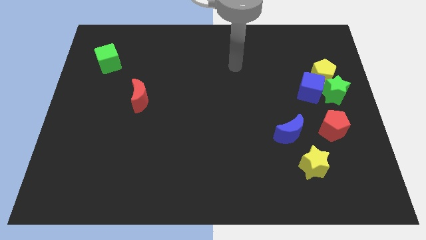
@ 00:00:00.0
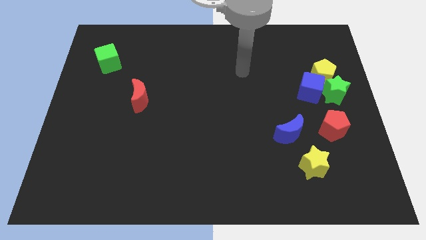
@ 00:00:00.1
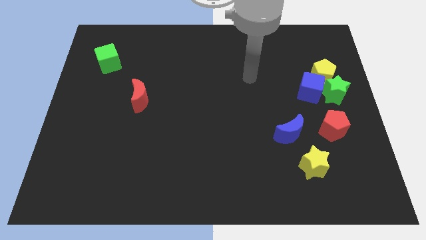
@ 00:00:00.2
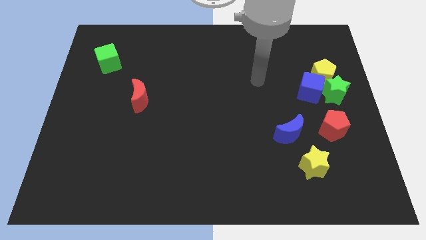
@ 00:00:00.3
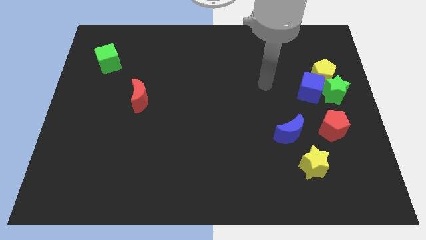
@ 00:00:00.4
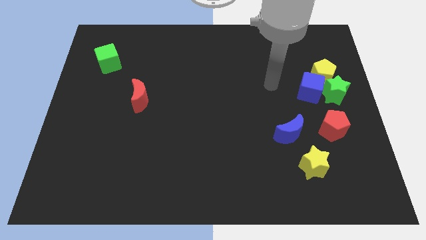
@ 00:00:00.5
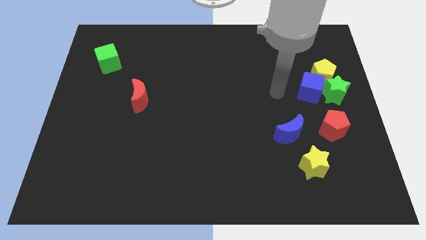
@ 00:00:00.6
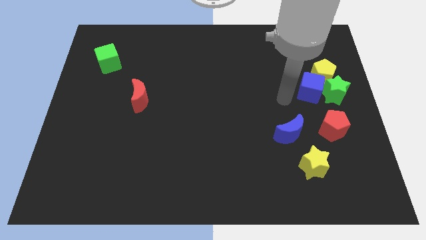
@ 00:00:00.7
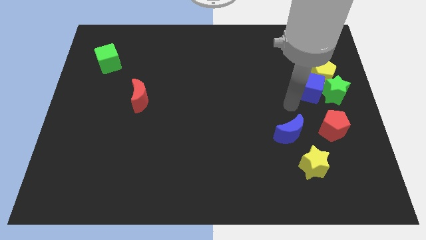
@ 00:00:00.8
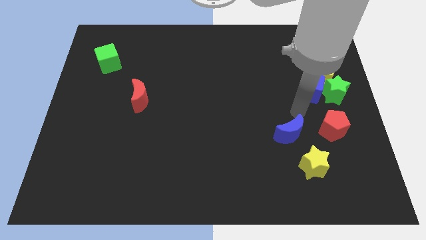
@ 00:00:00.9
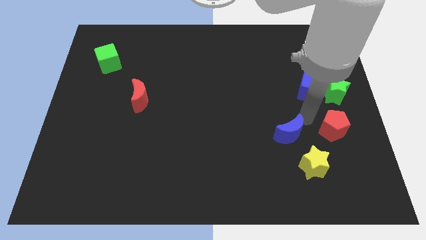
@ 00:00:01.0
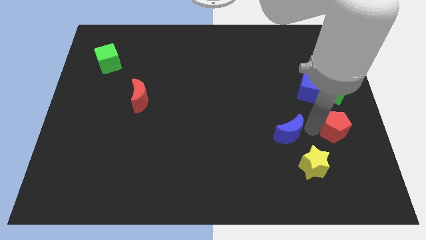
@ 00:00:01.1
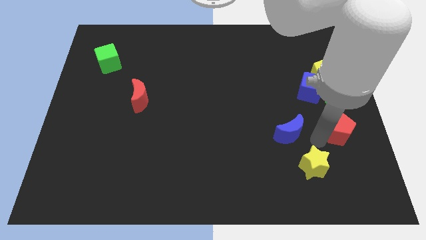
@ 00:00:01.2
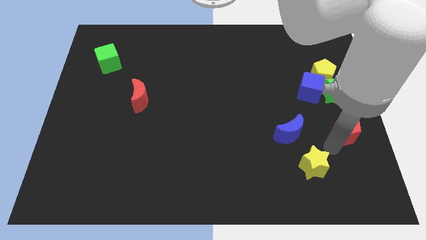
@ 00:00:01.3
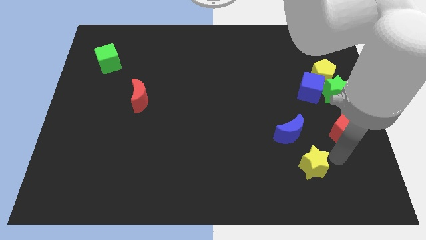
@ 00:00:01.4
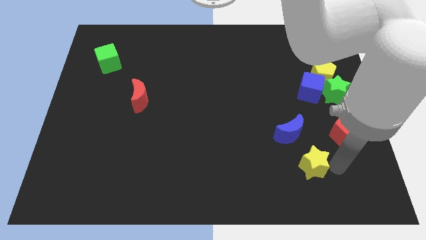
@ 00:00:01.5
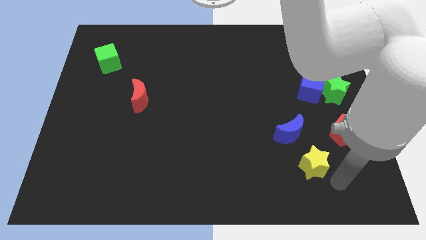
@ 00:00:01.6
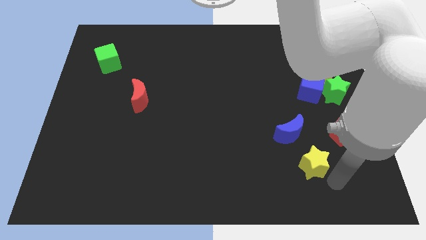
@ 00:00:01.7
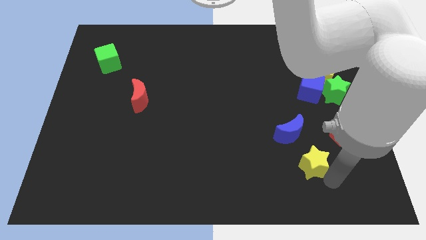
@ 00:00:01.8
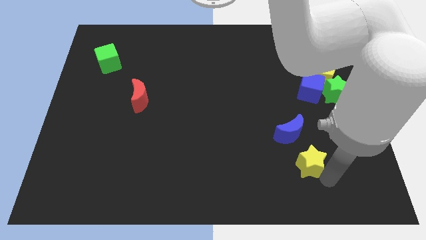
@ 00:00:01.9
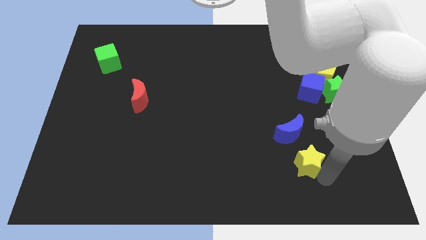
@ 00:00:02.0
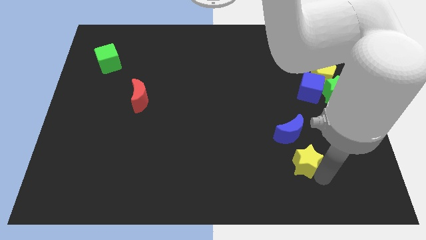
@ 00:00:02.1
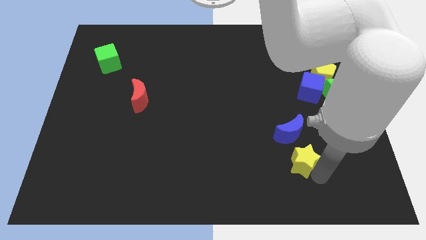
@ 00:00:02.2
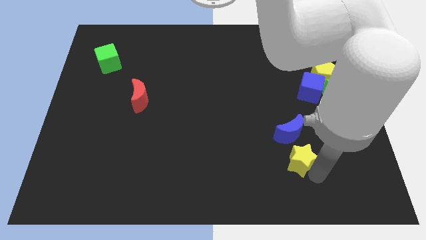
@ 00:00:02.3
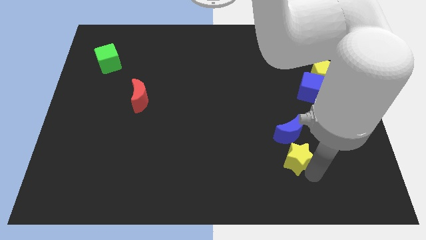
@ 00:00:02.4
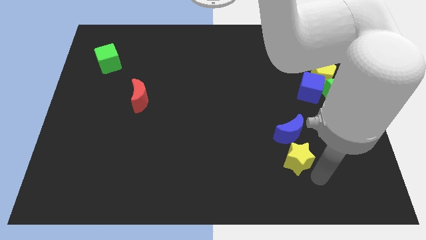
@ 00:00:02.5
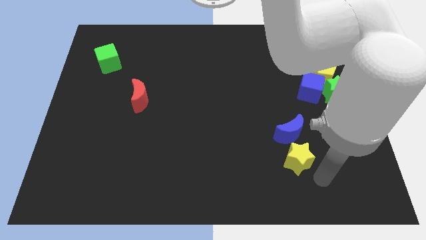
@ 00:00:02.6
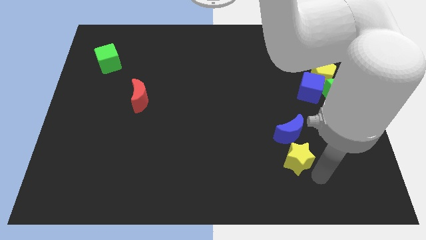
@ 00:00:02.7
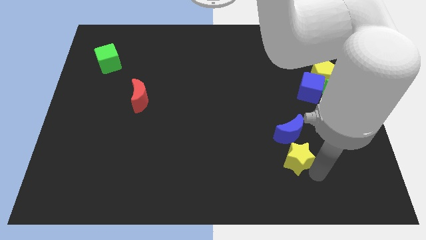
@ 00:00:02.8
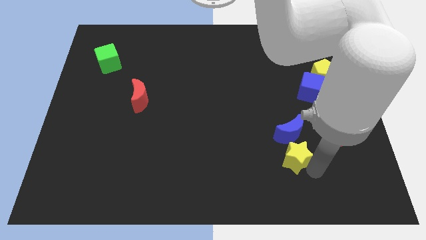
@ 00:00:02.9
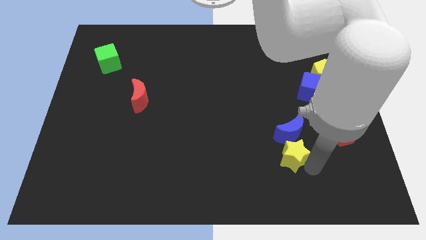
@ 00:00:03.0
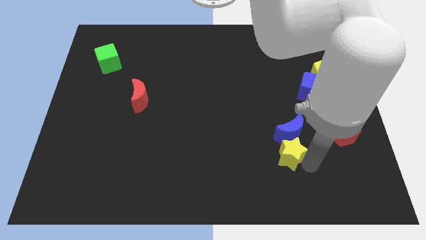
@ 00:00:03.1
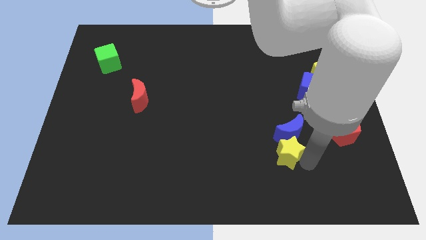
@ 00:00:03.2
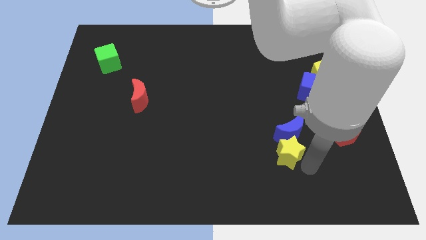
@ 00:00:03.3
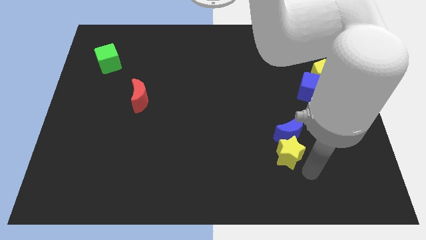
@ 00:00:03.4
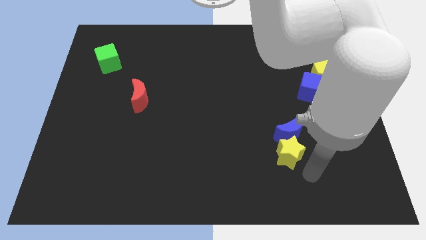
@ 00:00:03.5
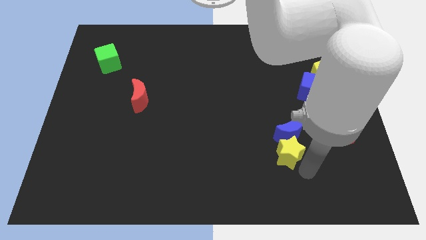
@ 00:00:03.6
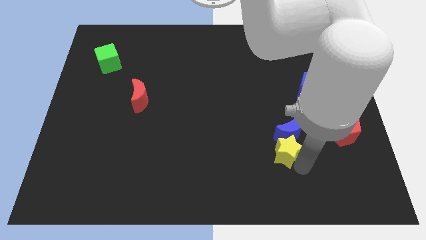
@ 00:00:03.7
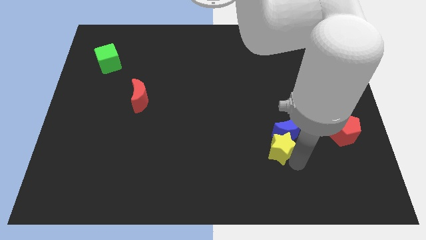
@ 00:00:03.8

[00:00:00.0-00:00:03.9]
slide the yellow star upwards and to the left a bit

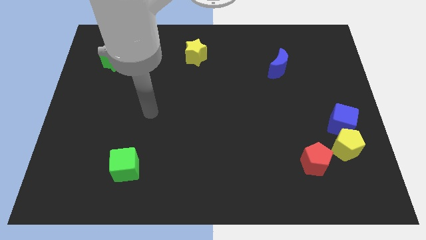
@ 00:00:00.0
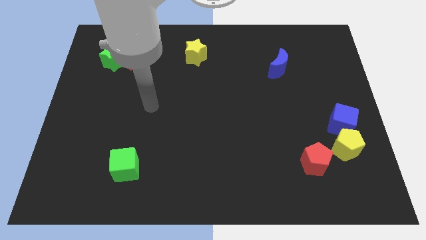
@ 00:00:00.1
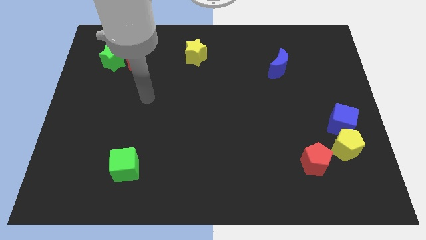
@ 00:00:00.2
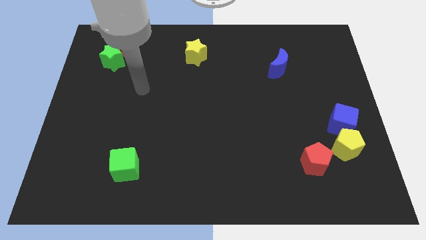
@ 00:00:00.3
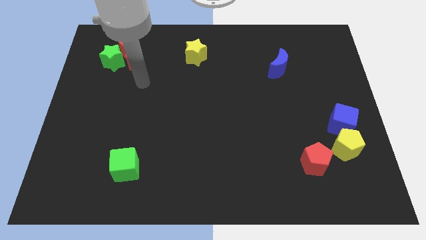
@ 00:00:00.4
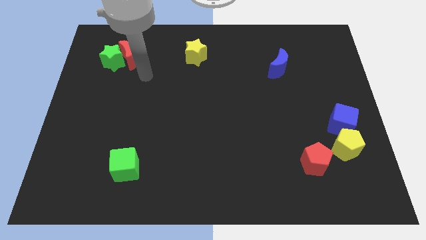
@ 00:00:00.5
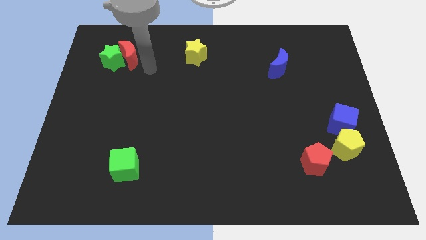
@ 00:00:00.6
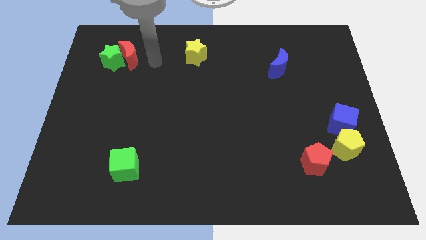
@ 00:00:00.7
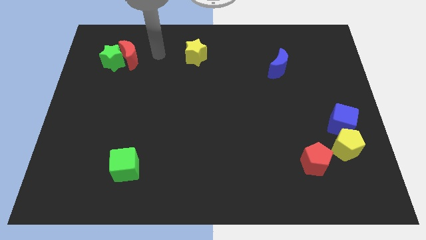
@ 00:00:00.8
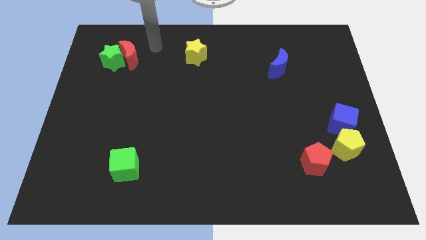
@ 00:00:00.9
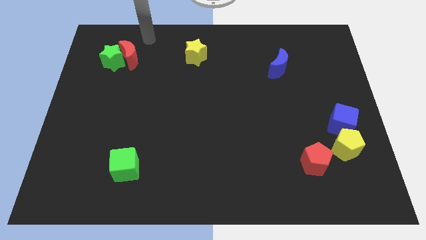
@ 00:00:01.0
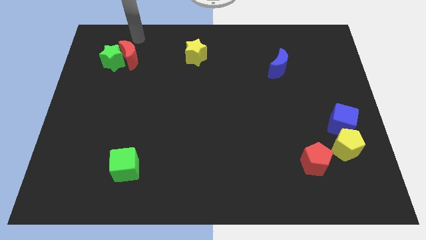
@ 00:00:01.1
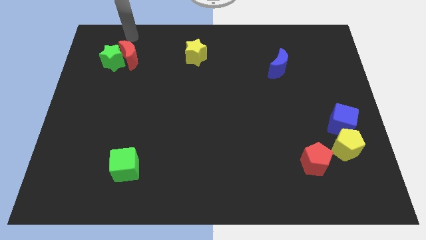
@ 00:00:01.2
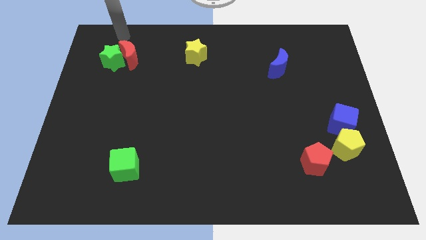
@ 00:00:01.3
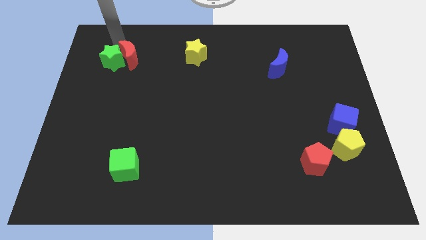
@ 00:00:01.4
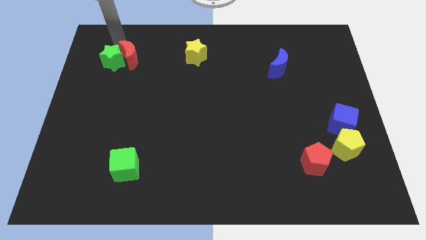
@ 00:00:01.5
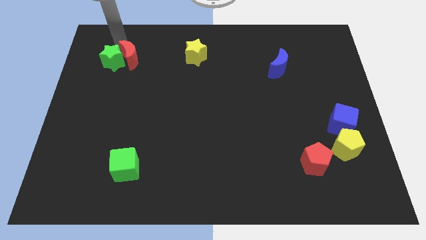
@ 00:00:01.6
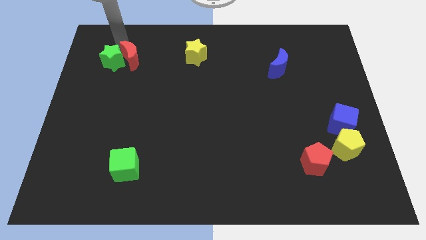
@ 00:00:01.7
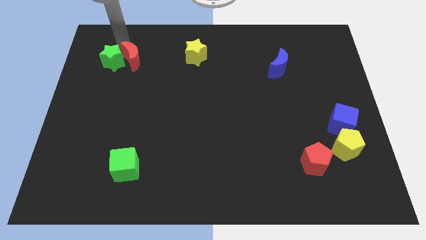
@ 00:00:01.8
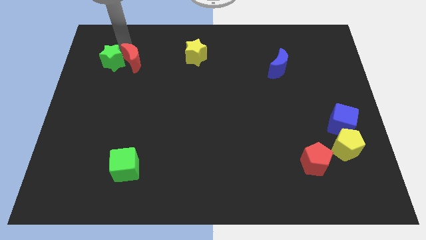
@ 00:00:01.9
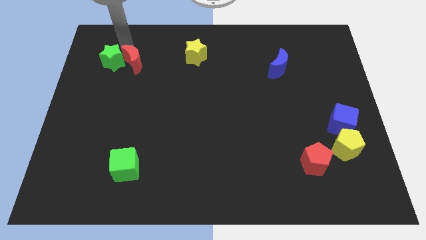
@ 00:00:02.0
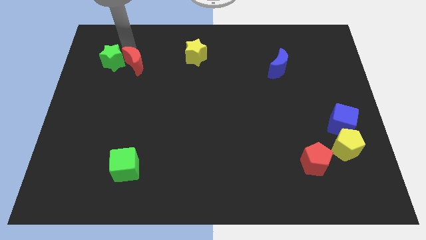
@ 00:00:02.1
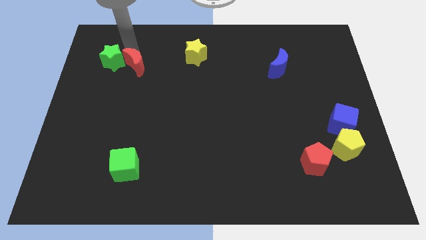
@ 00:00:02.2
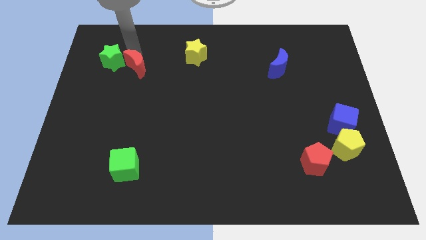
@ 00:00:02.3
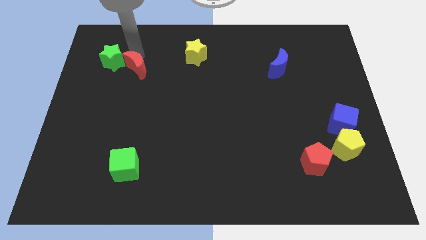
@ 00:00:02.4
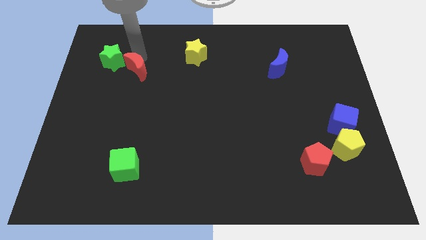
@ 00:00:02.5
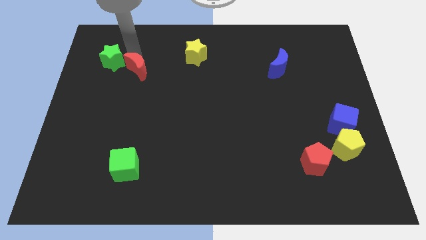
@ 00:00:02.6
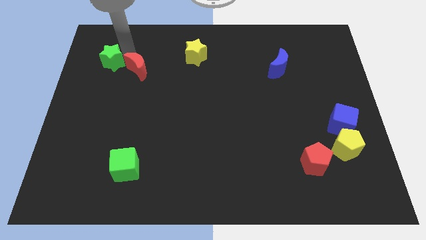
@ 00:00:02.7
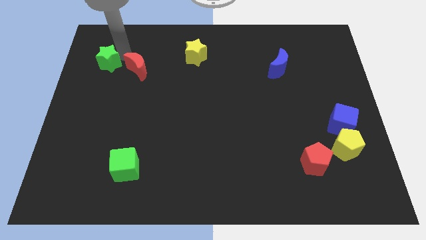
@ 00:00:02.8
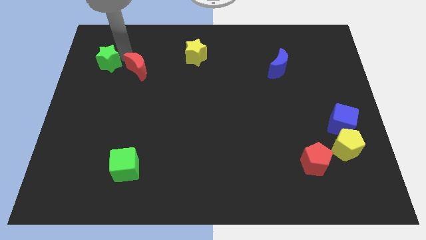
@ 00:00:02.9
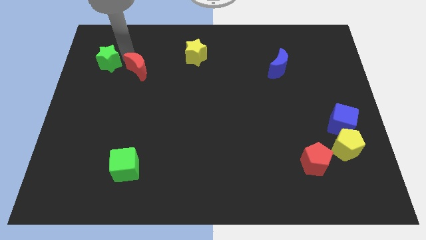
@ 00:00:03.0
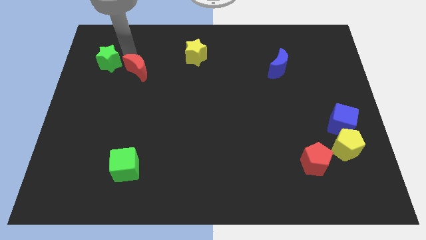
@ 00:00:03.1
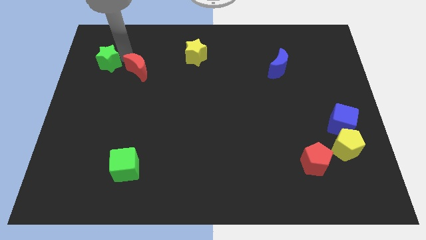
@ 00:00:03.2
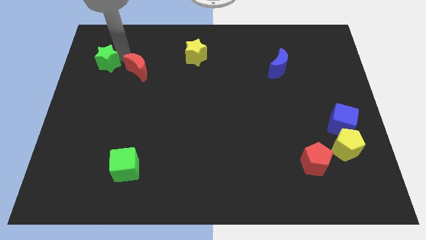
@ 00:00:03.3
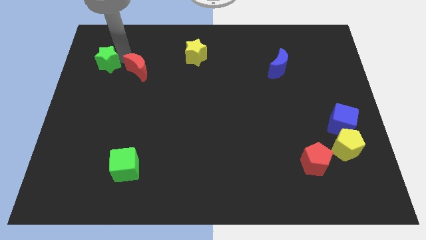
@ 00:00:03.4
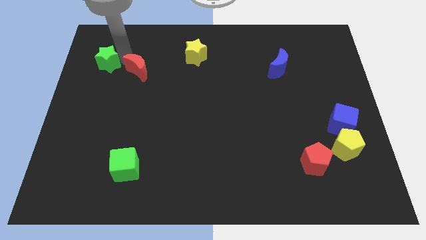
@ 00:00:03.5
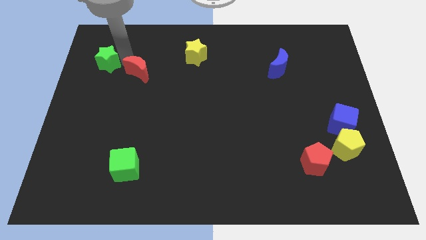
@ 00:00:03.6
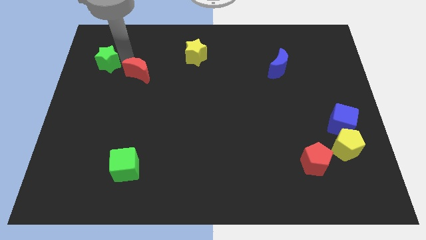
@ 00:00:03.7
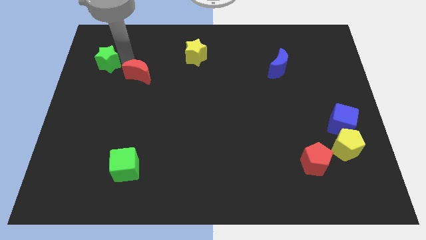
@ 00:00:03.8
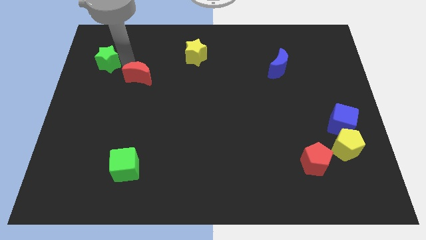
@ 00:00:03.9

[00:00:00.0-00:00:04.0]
move the red moon down and then to the right slightly
